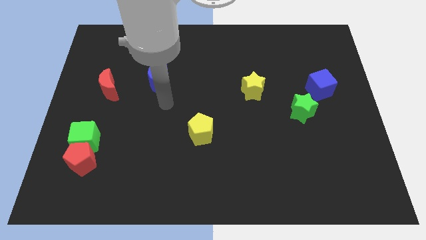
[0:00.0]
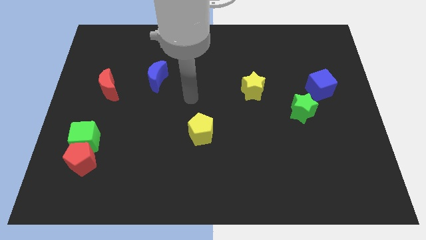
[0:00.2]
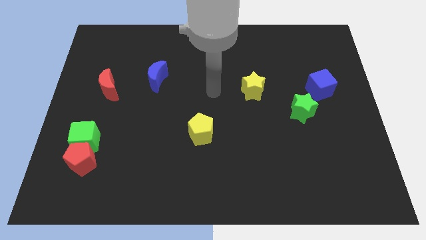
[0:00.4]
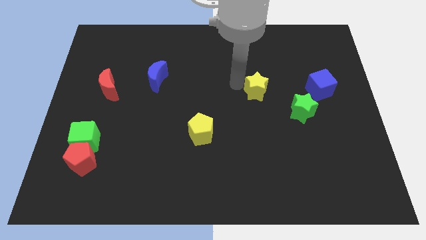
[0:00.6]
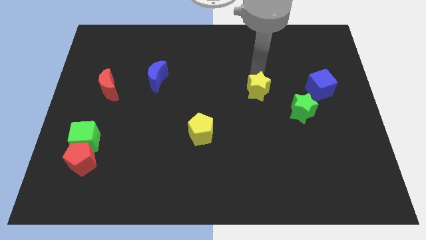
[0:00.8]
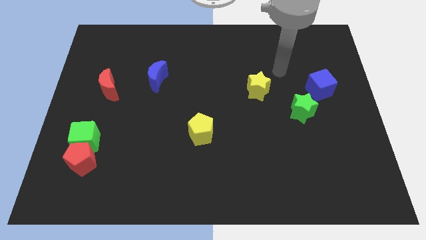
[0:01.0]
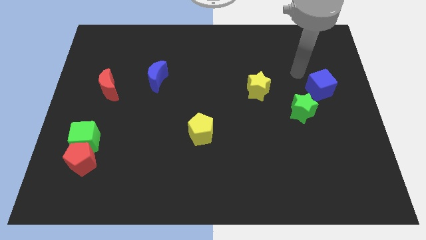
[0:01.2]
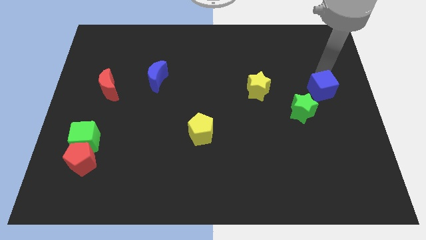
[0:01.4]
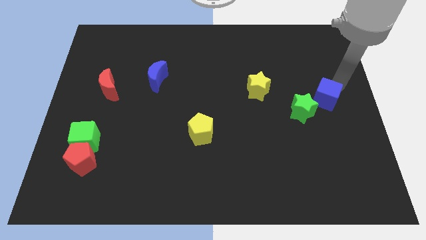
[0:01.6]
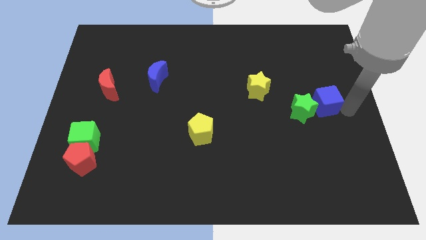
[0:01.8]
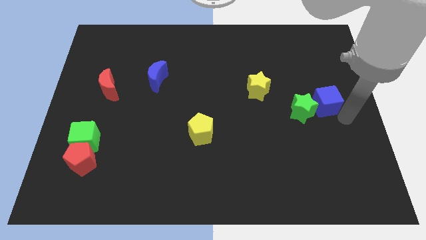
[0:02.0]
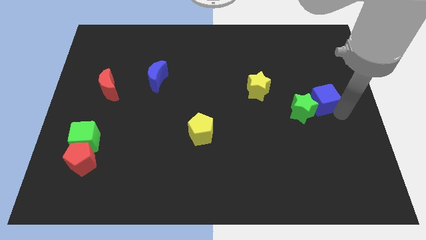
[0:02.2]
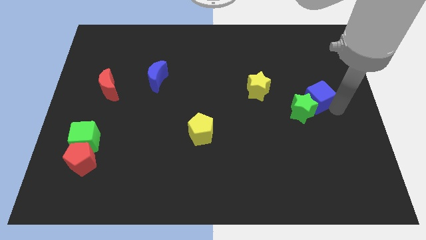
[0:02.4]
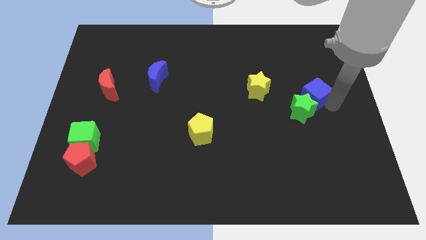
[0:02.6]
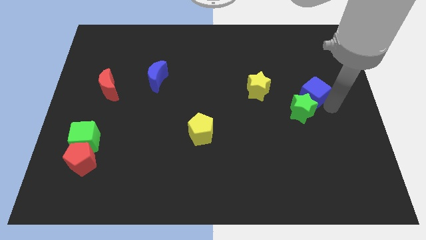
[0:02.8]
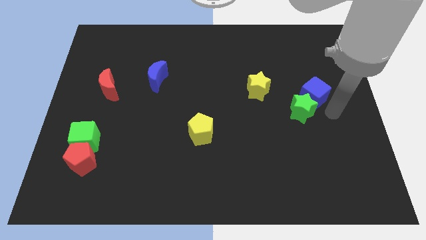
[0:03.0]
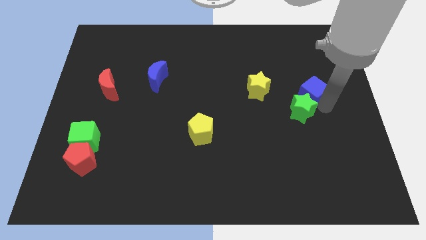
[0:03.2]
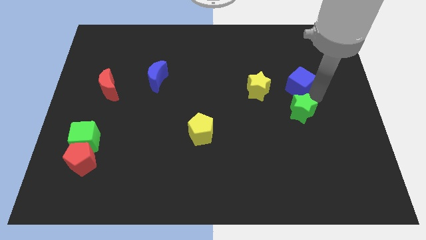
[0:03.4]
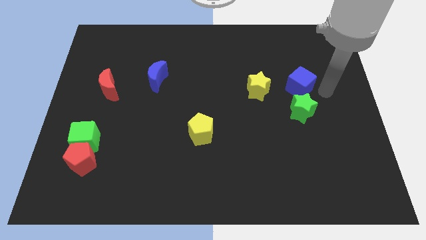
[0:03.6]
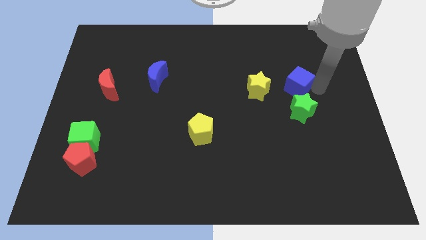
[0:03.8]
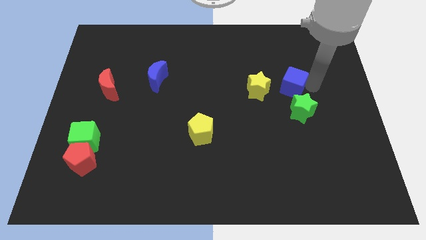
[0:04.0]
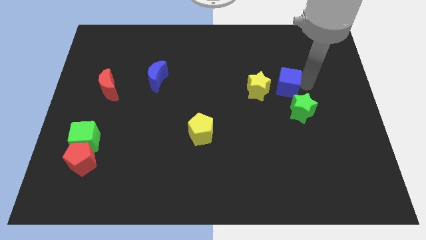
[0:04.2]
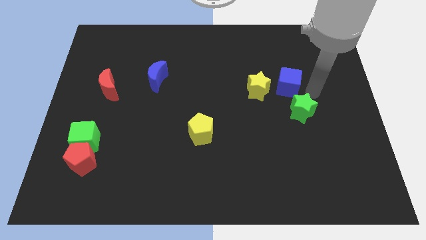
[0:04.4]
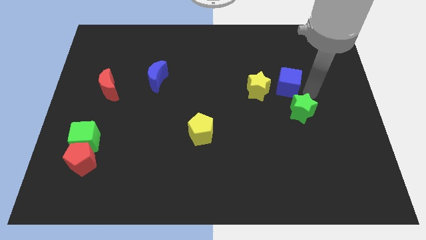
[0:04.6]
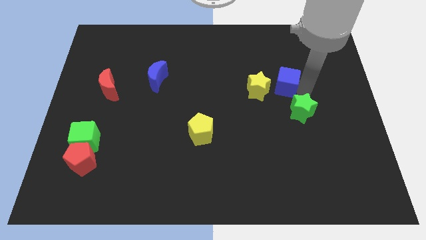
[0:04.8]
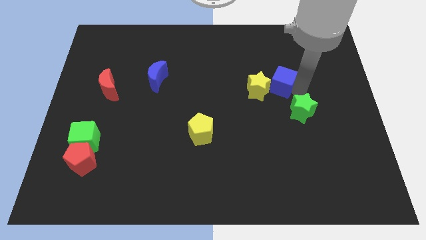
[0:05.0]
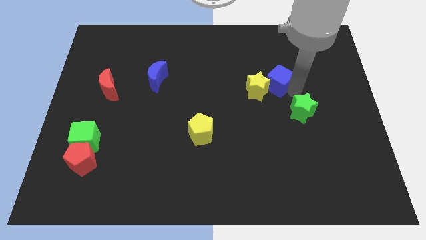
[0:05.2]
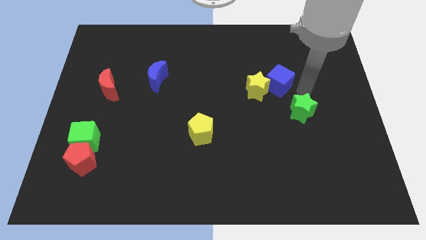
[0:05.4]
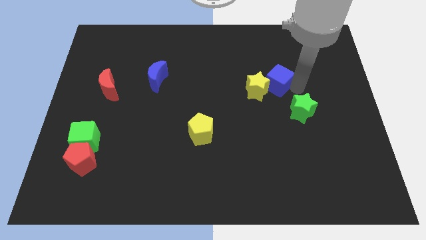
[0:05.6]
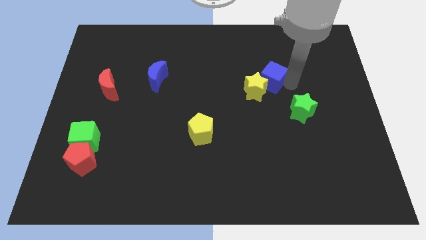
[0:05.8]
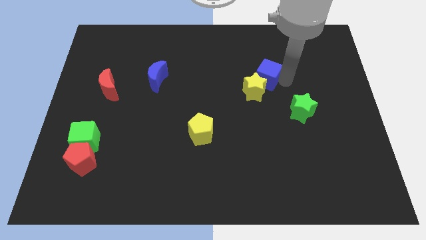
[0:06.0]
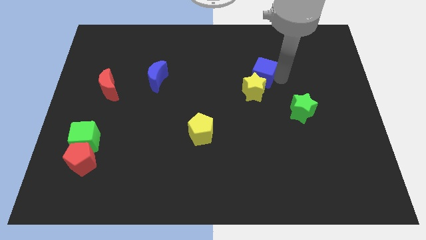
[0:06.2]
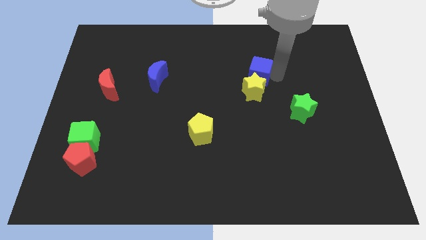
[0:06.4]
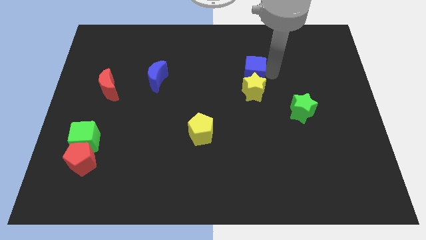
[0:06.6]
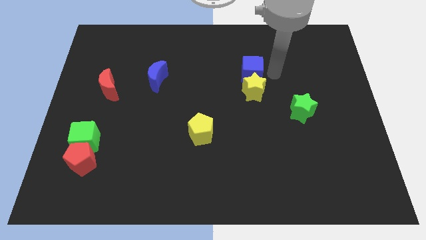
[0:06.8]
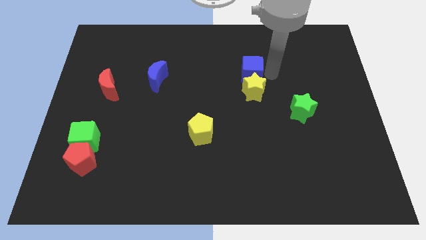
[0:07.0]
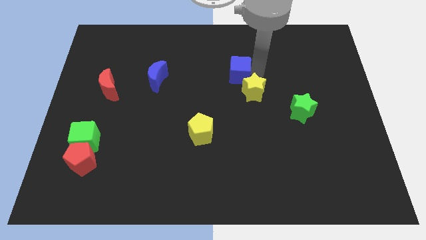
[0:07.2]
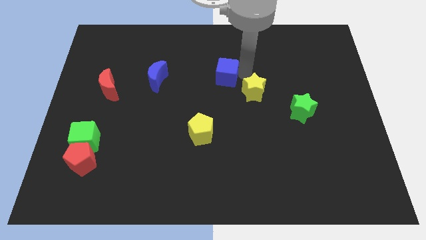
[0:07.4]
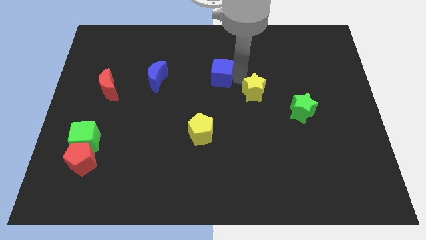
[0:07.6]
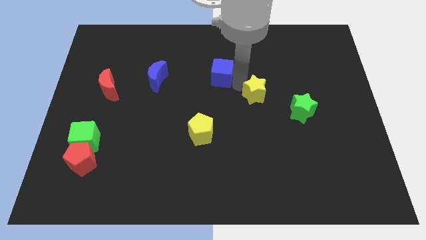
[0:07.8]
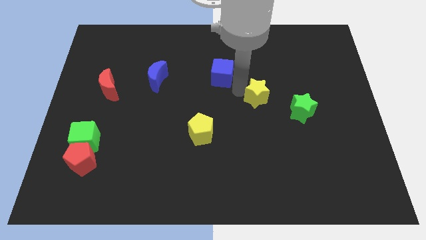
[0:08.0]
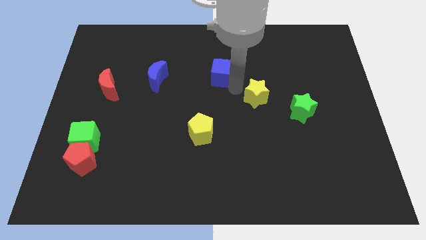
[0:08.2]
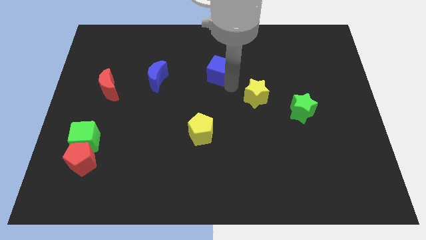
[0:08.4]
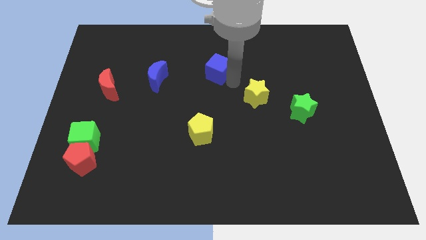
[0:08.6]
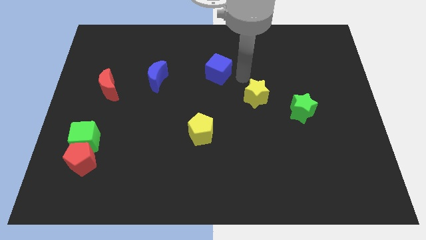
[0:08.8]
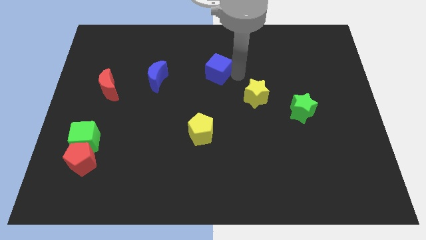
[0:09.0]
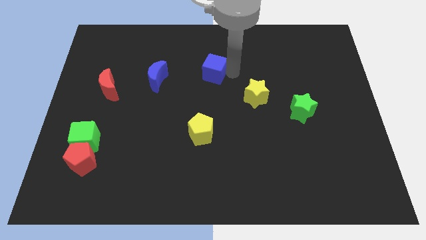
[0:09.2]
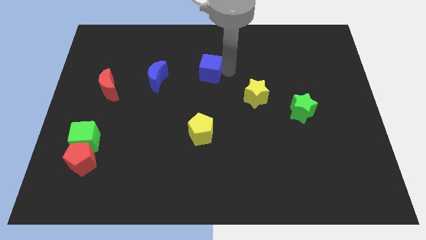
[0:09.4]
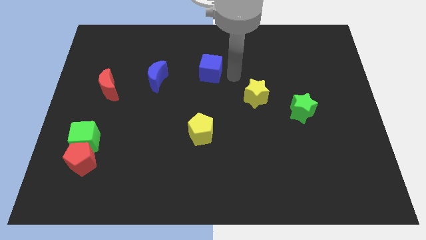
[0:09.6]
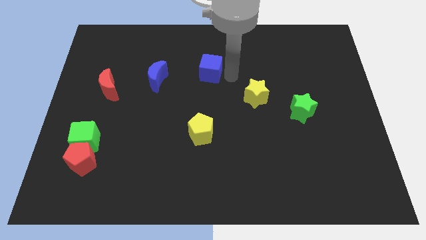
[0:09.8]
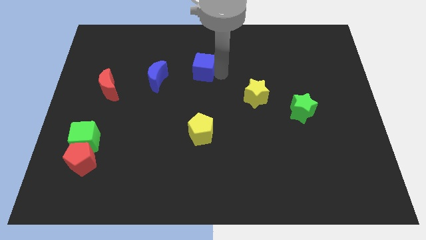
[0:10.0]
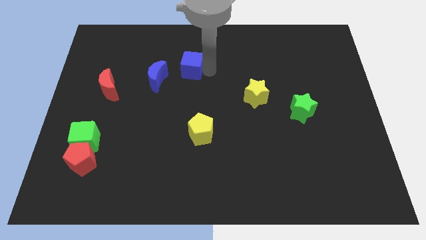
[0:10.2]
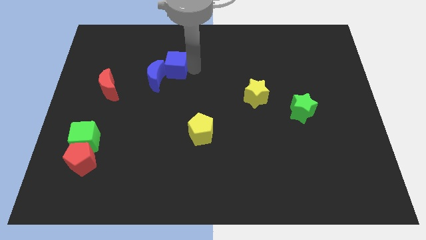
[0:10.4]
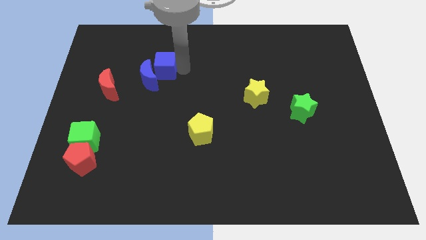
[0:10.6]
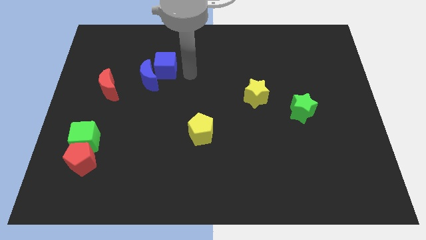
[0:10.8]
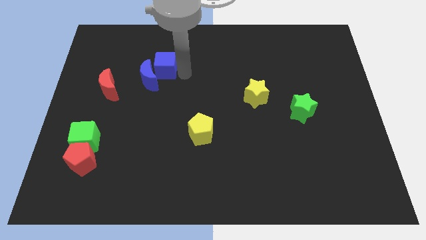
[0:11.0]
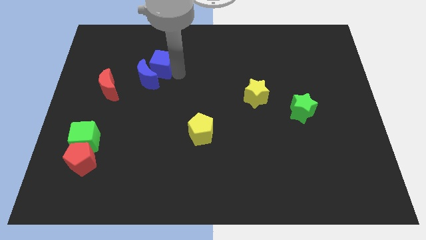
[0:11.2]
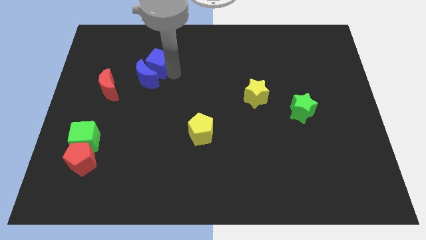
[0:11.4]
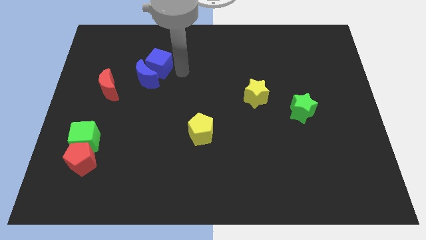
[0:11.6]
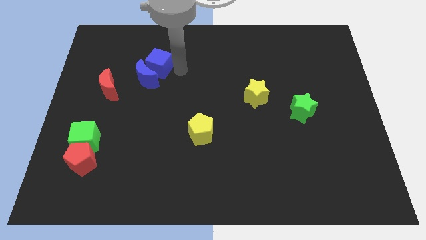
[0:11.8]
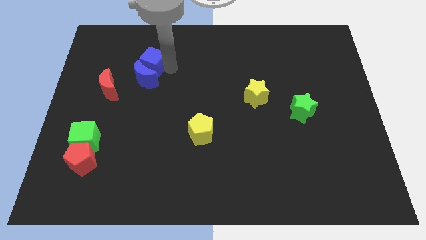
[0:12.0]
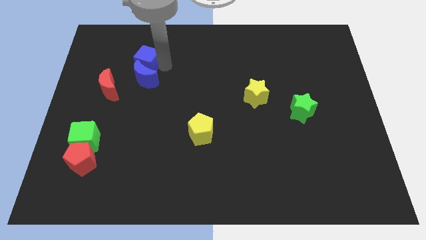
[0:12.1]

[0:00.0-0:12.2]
move the blue cube to the top right side of the red moon
